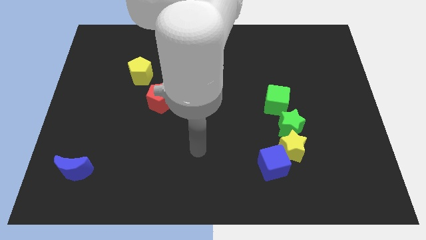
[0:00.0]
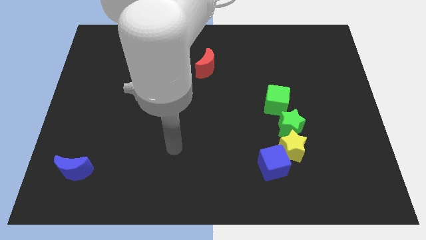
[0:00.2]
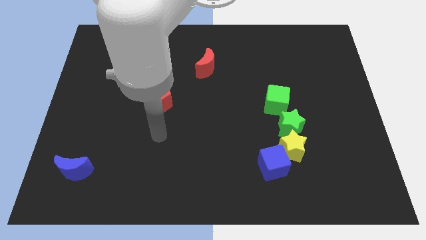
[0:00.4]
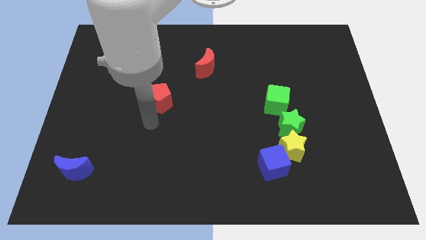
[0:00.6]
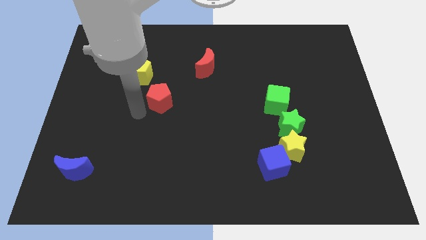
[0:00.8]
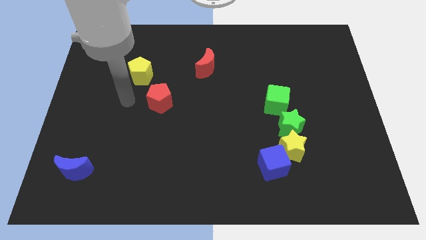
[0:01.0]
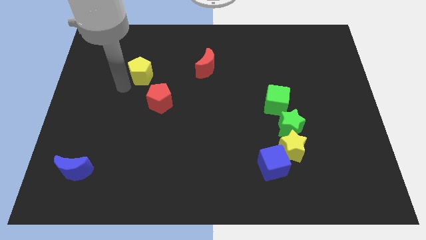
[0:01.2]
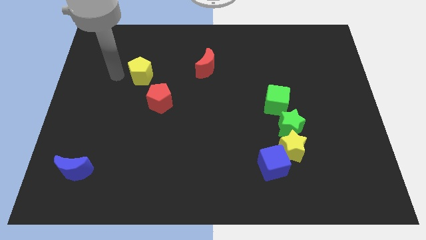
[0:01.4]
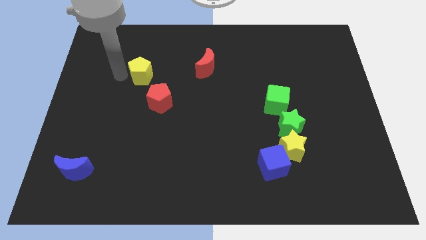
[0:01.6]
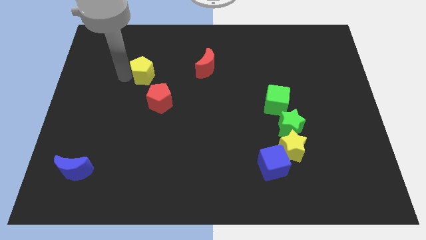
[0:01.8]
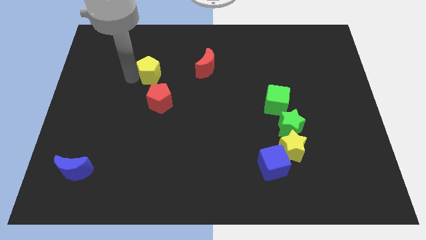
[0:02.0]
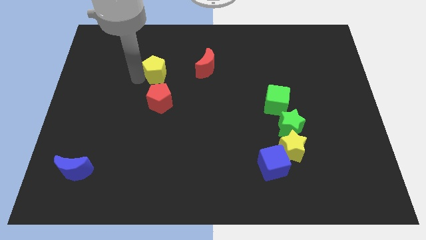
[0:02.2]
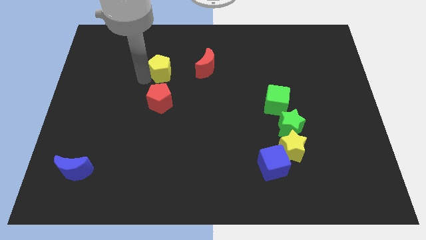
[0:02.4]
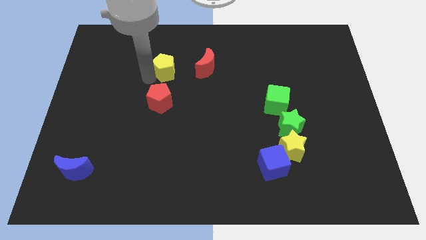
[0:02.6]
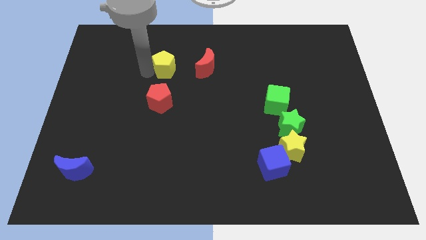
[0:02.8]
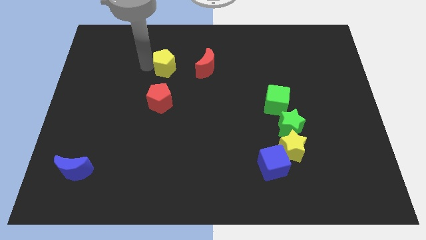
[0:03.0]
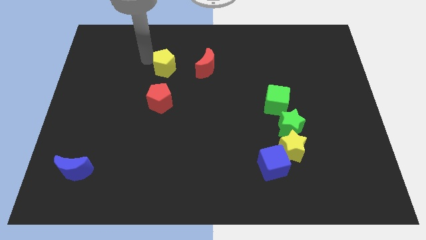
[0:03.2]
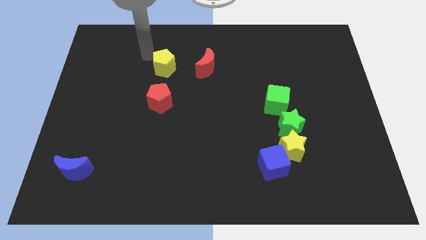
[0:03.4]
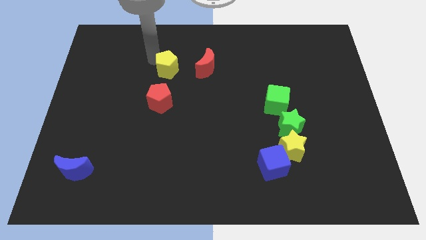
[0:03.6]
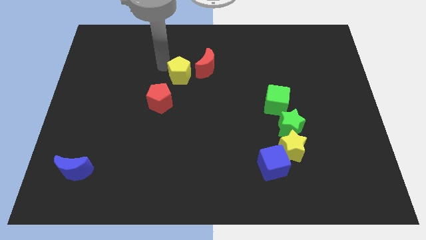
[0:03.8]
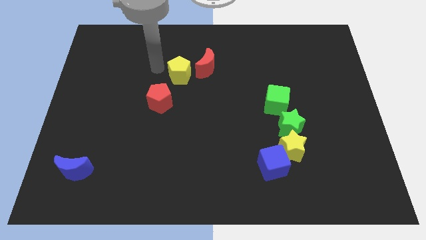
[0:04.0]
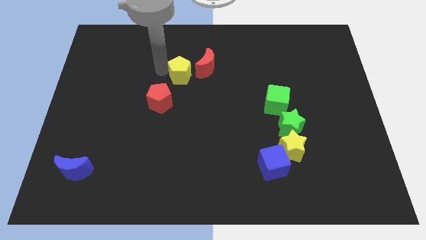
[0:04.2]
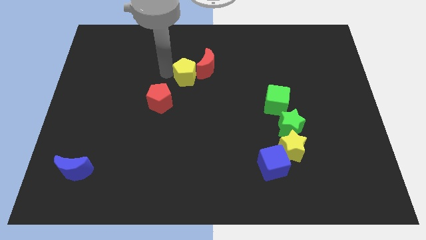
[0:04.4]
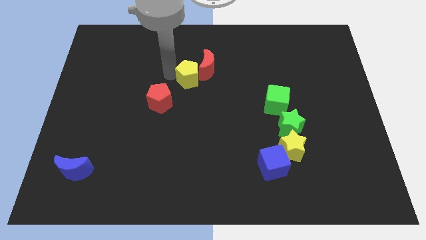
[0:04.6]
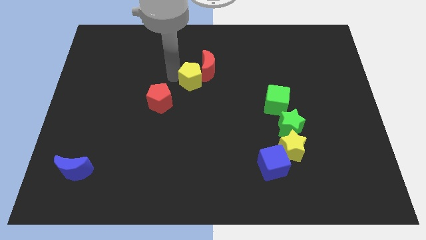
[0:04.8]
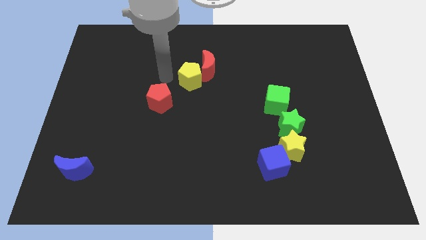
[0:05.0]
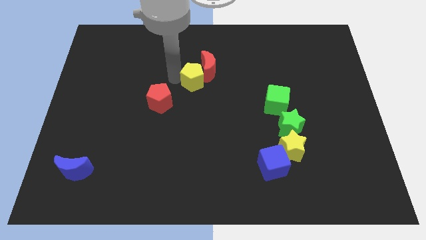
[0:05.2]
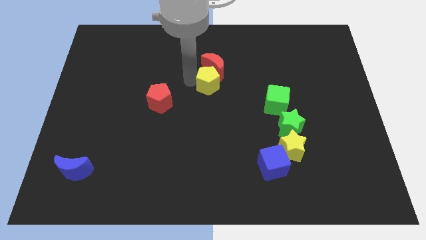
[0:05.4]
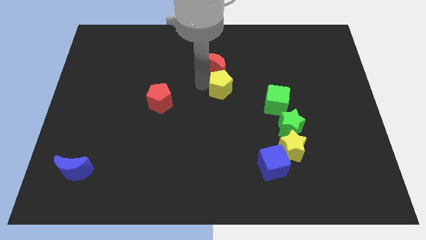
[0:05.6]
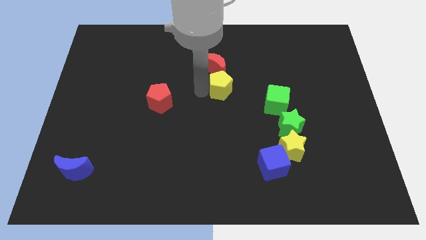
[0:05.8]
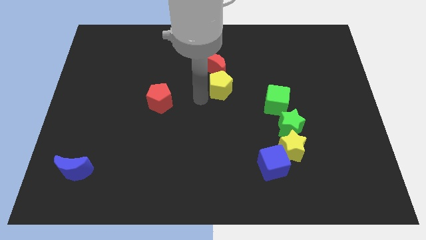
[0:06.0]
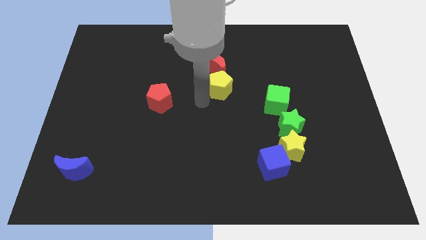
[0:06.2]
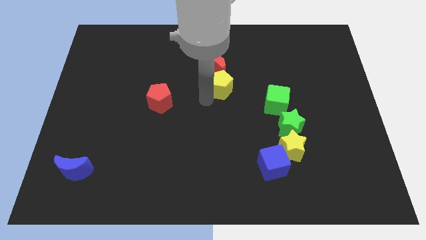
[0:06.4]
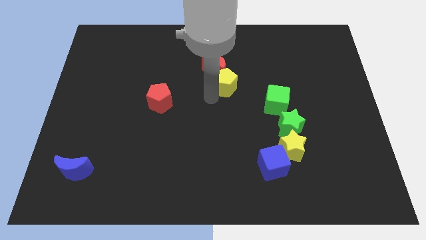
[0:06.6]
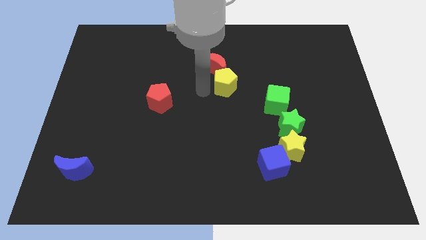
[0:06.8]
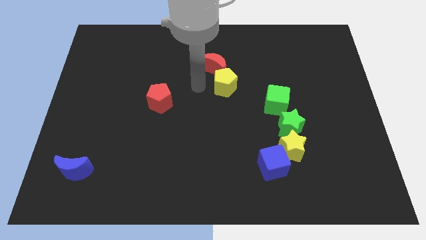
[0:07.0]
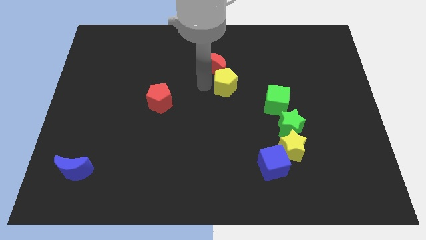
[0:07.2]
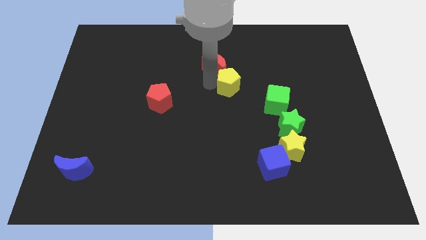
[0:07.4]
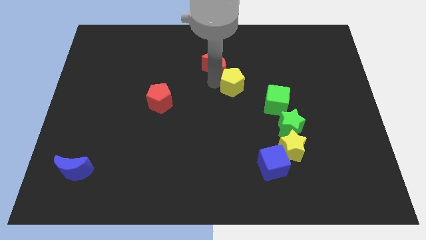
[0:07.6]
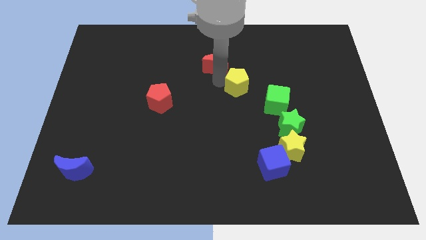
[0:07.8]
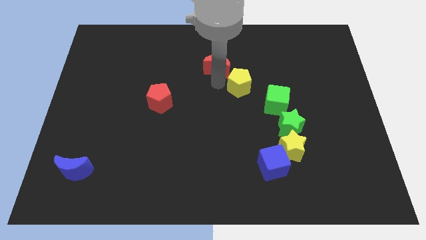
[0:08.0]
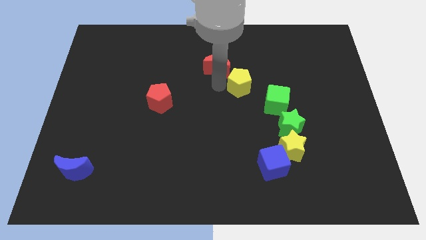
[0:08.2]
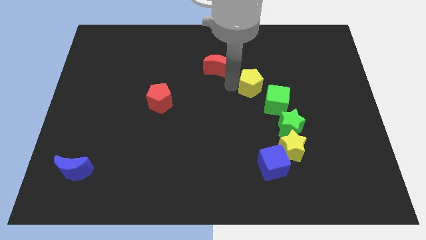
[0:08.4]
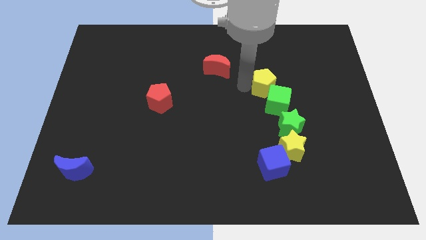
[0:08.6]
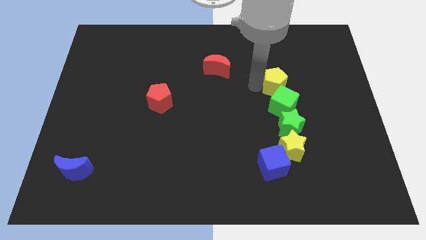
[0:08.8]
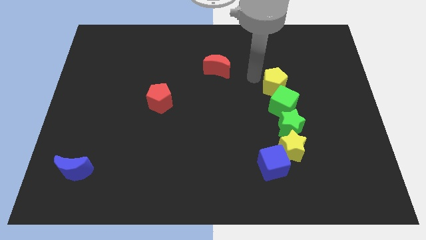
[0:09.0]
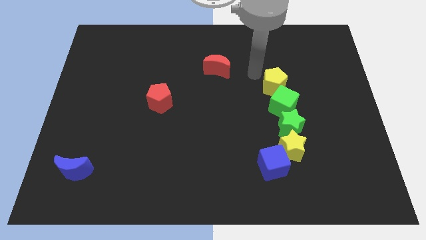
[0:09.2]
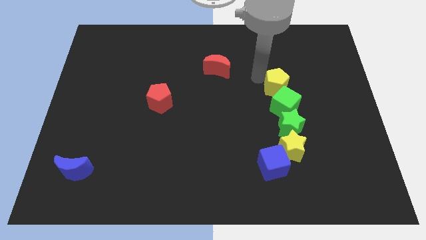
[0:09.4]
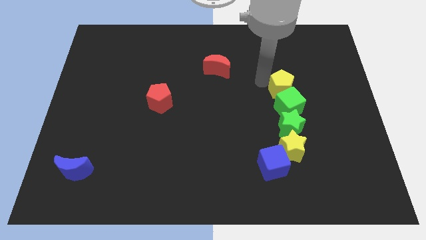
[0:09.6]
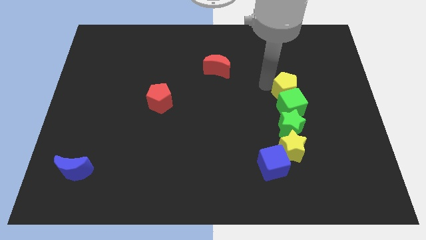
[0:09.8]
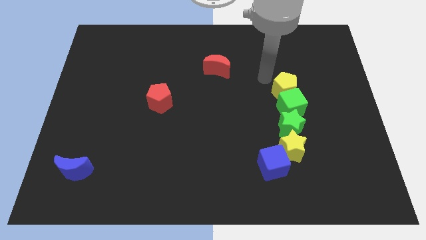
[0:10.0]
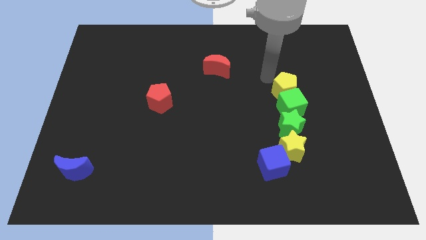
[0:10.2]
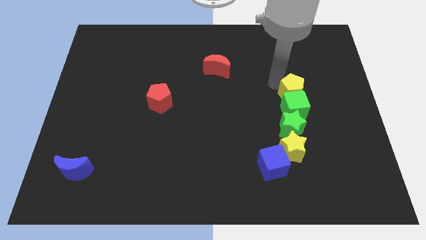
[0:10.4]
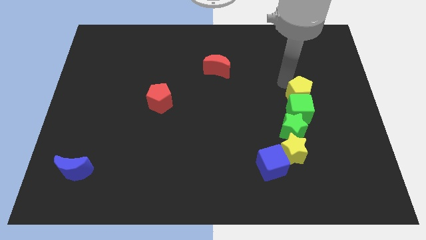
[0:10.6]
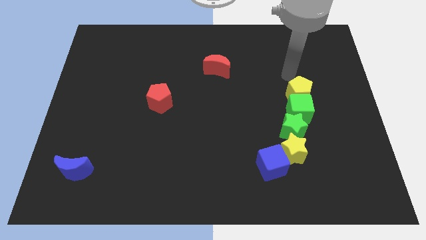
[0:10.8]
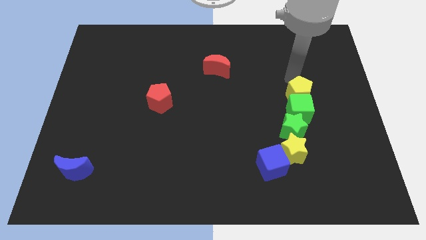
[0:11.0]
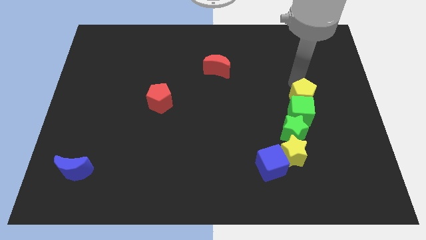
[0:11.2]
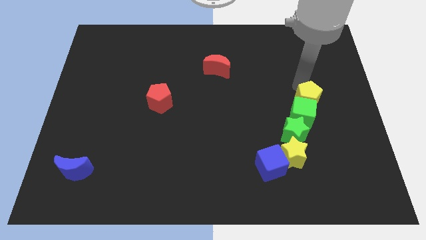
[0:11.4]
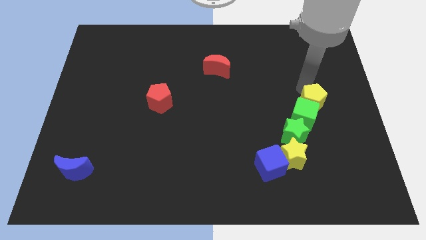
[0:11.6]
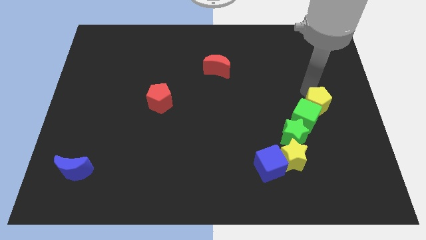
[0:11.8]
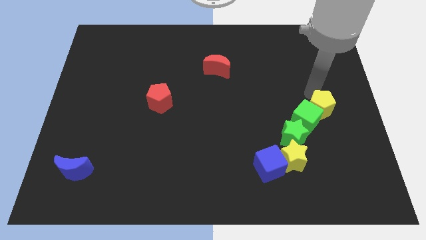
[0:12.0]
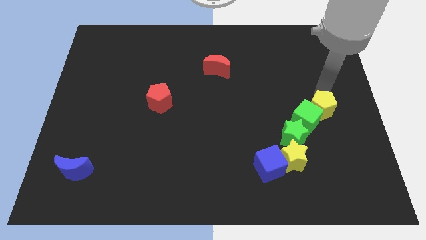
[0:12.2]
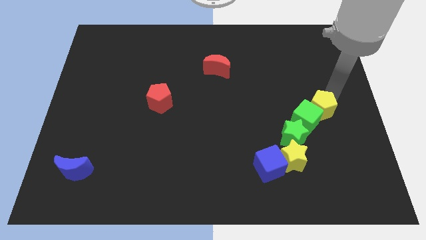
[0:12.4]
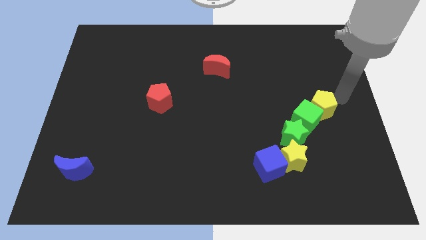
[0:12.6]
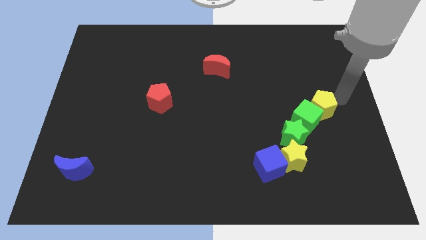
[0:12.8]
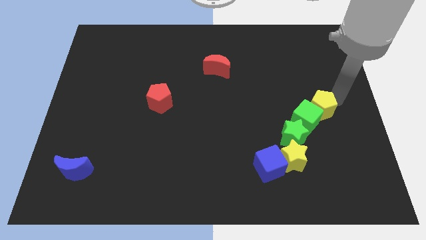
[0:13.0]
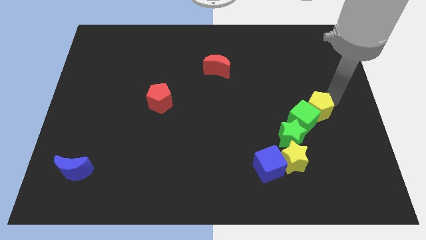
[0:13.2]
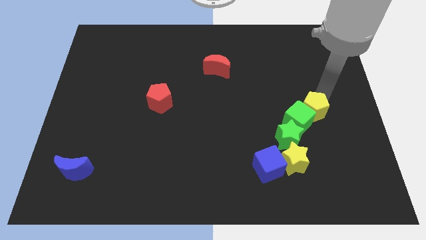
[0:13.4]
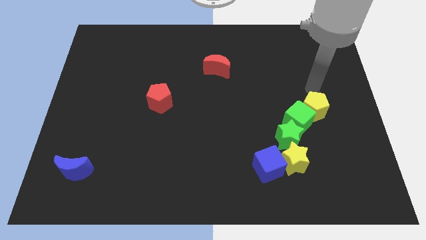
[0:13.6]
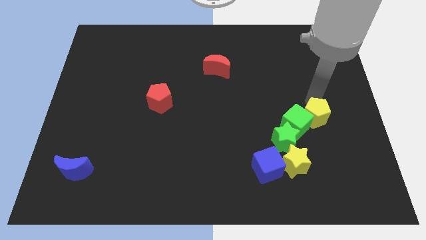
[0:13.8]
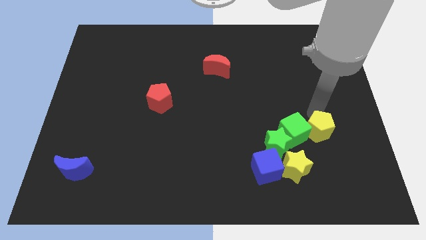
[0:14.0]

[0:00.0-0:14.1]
slide the yellow pentagon diagonally up and to the right of the yellow star
